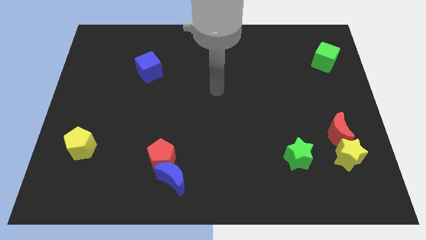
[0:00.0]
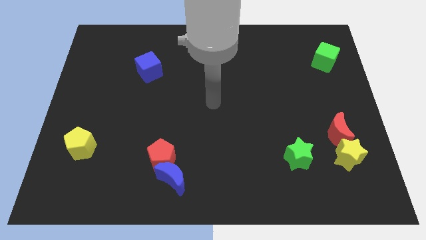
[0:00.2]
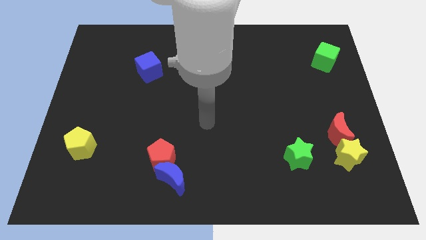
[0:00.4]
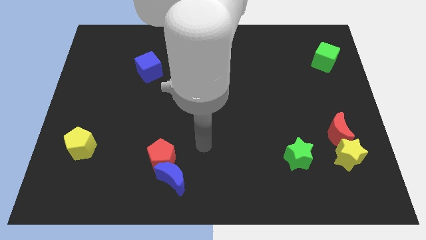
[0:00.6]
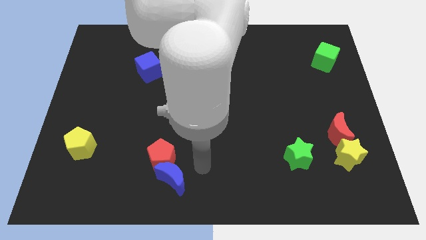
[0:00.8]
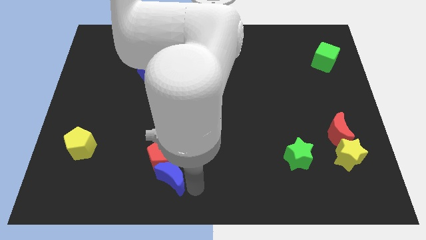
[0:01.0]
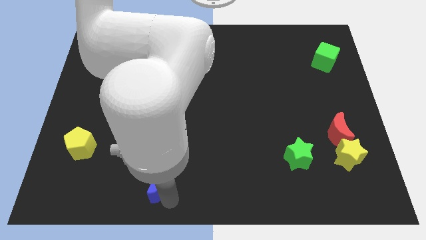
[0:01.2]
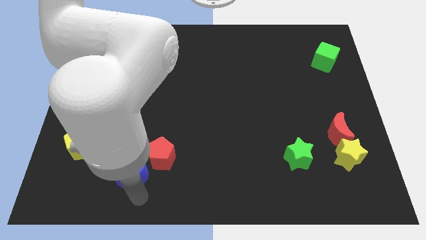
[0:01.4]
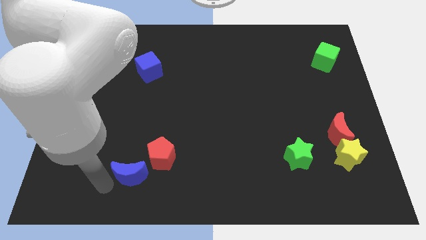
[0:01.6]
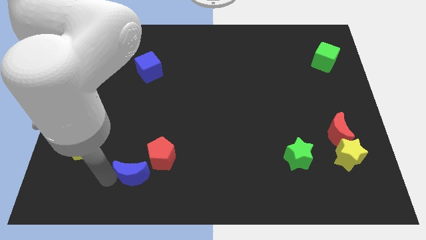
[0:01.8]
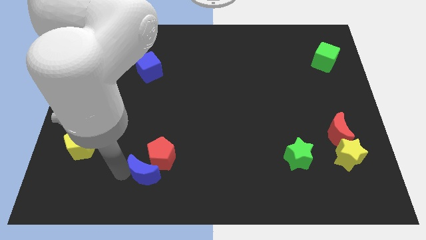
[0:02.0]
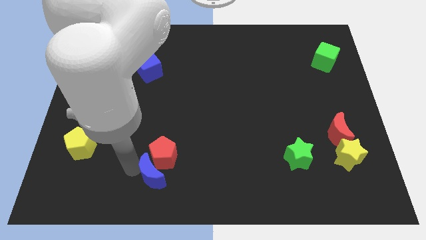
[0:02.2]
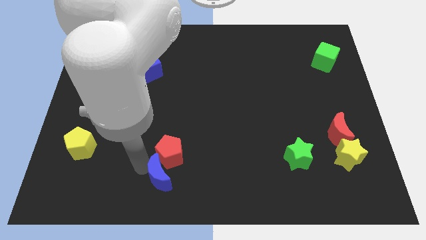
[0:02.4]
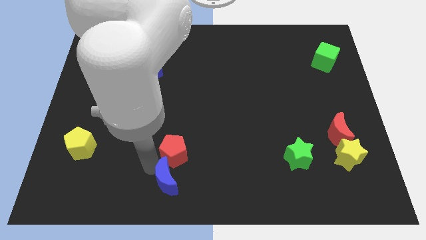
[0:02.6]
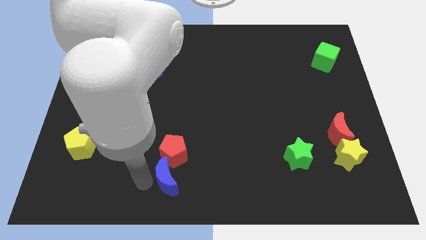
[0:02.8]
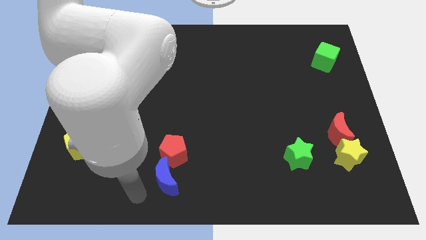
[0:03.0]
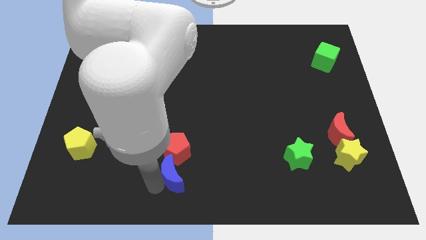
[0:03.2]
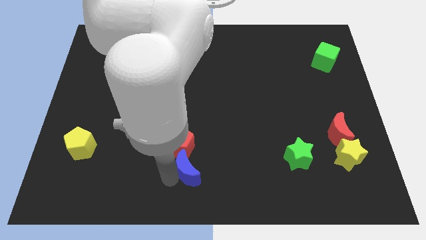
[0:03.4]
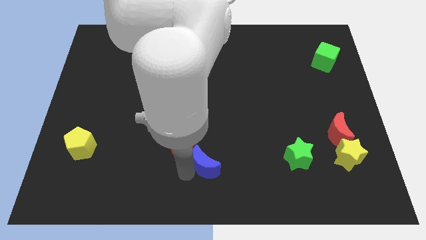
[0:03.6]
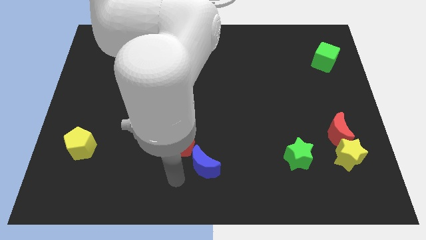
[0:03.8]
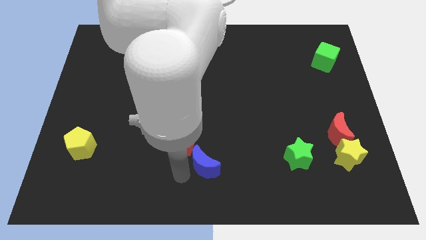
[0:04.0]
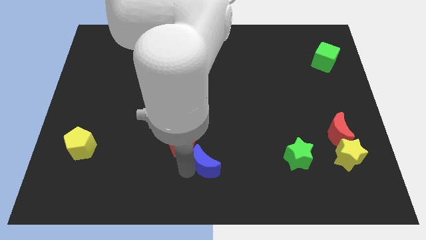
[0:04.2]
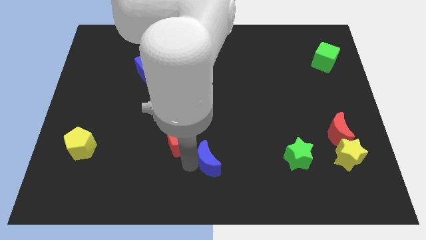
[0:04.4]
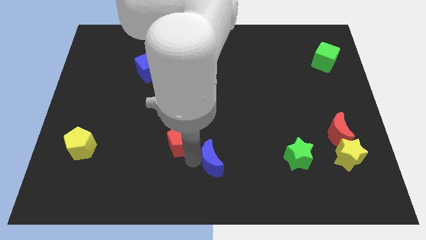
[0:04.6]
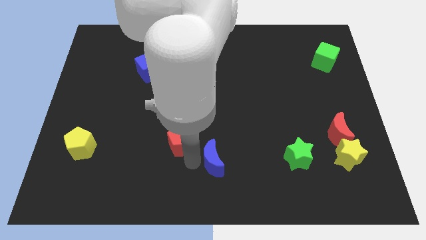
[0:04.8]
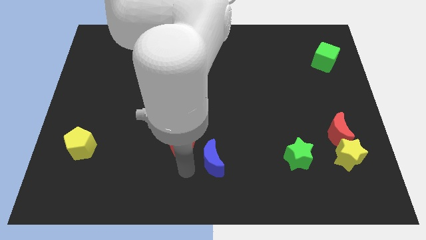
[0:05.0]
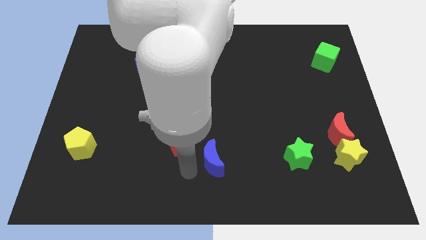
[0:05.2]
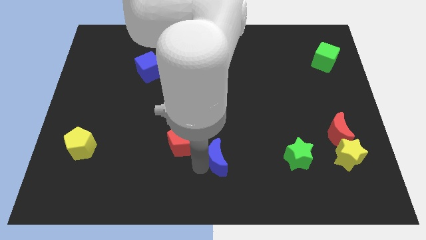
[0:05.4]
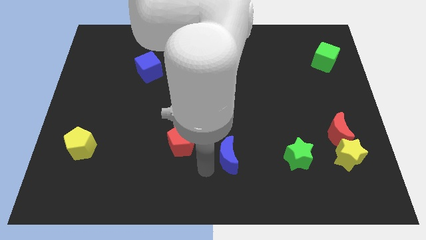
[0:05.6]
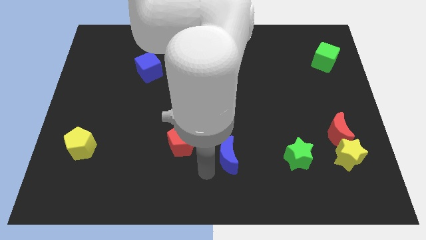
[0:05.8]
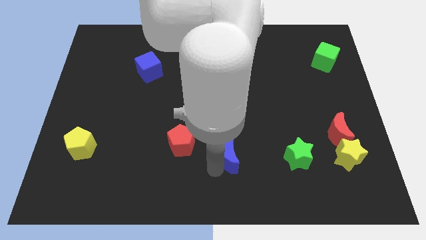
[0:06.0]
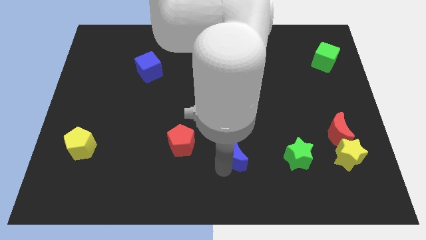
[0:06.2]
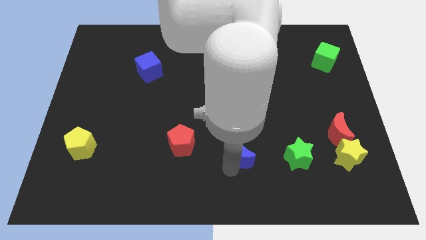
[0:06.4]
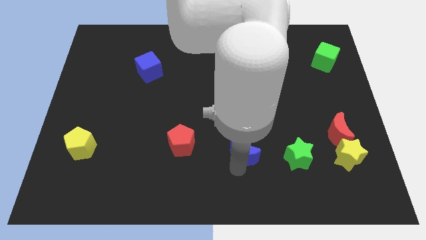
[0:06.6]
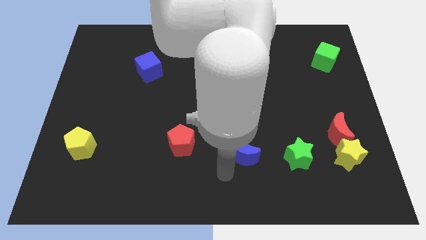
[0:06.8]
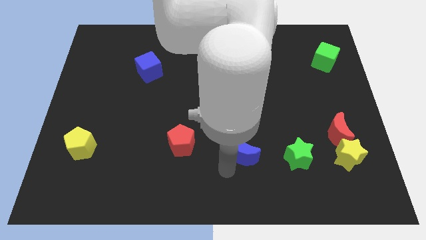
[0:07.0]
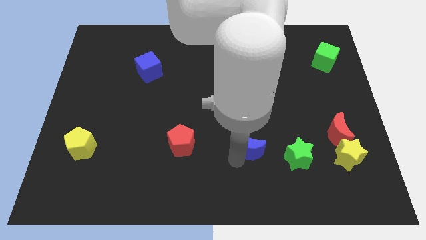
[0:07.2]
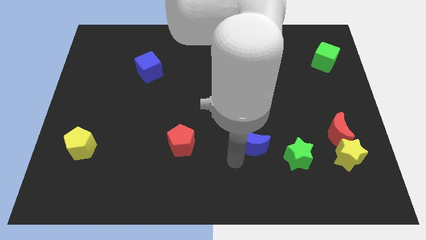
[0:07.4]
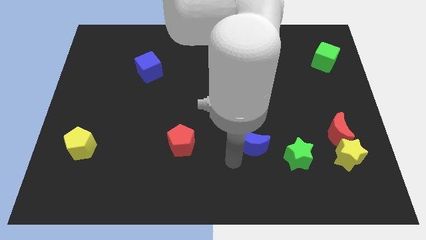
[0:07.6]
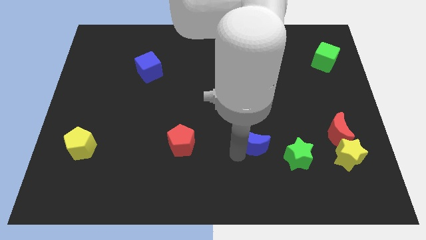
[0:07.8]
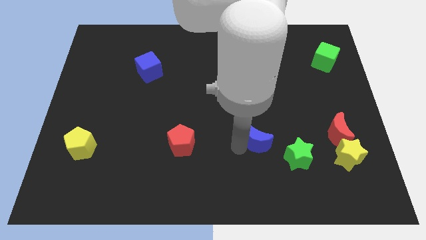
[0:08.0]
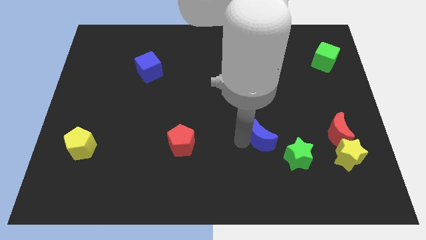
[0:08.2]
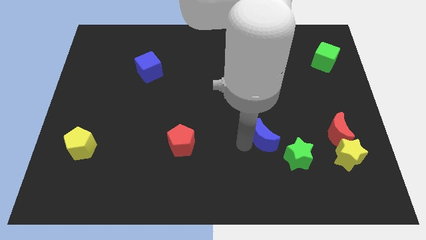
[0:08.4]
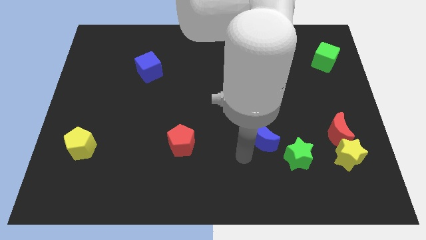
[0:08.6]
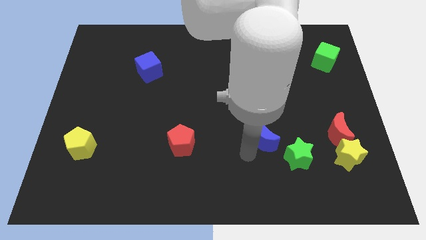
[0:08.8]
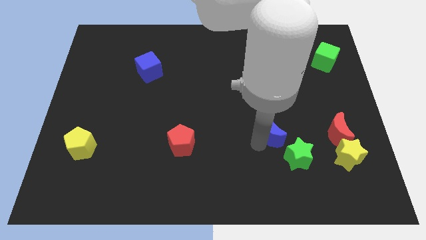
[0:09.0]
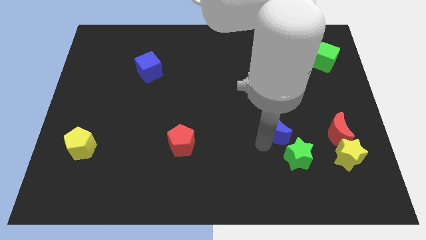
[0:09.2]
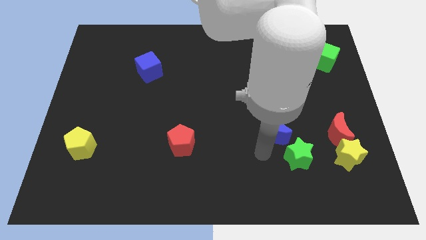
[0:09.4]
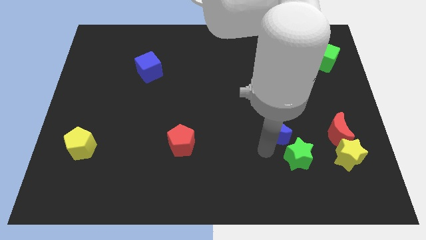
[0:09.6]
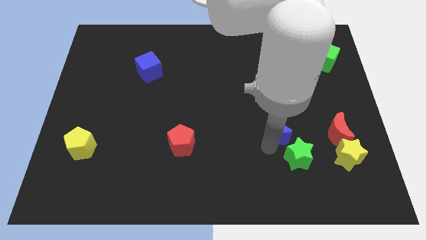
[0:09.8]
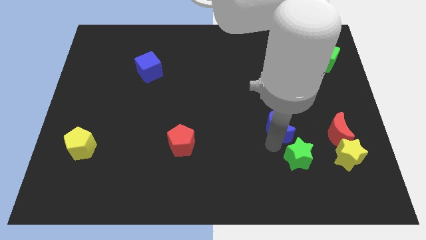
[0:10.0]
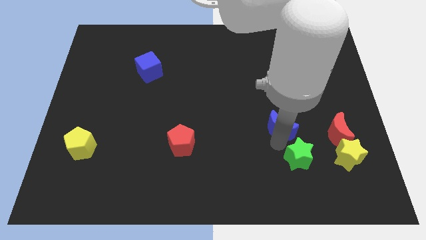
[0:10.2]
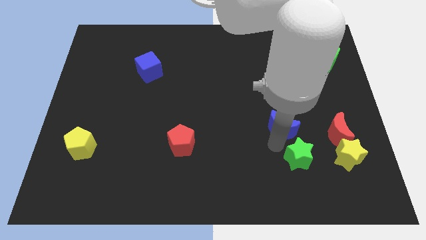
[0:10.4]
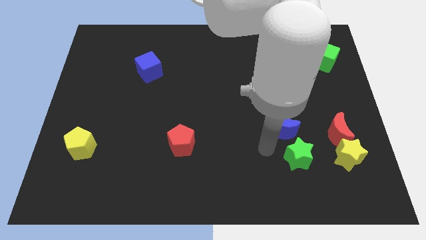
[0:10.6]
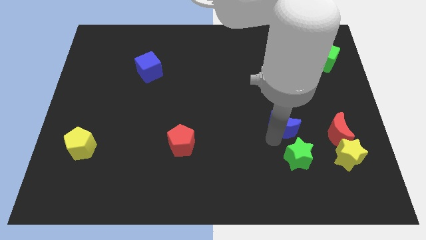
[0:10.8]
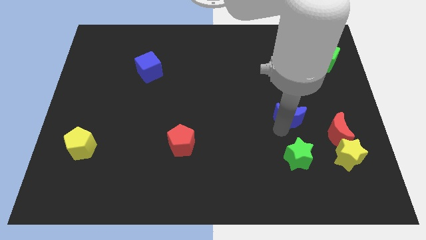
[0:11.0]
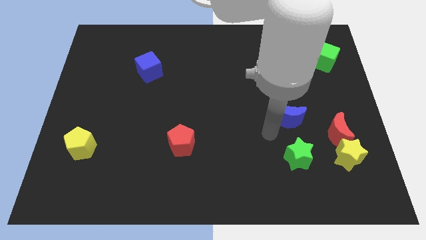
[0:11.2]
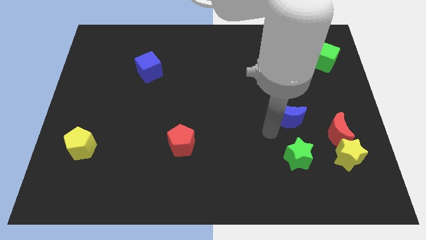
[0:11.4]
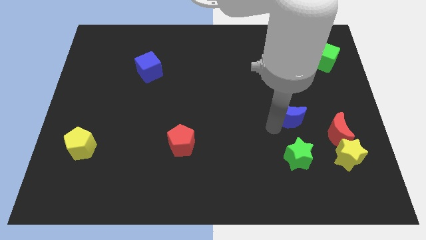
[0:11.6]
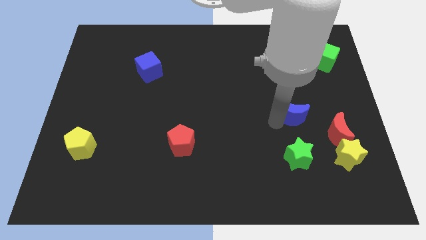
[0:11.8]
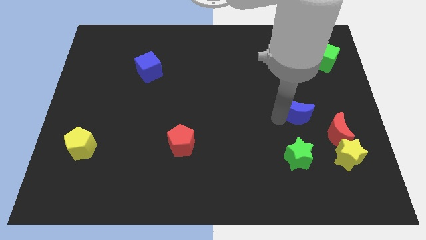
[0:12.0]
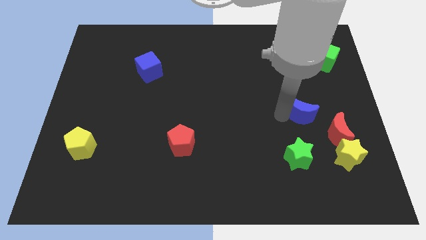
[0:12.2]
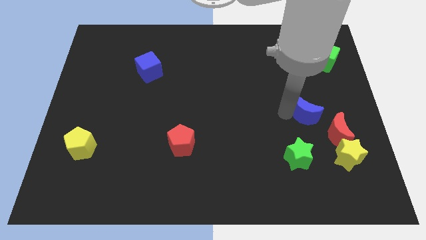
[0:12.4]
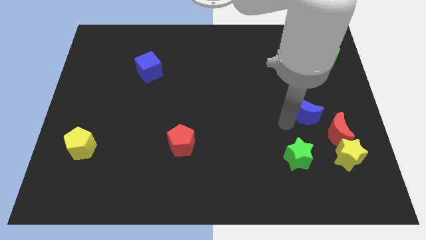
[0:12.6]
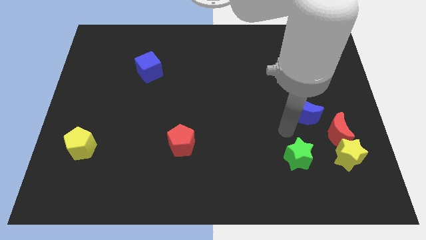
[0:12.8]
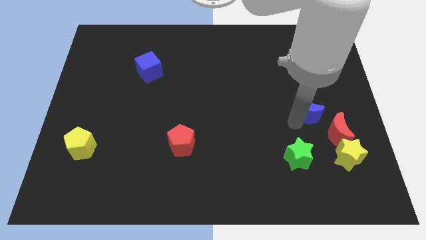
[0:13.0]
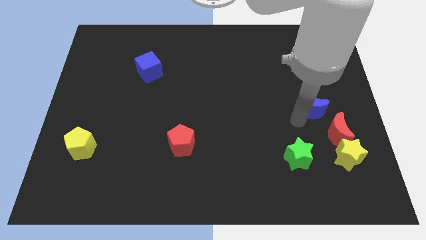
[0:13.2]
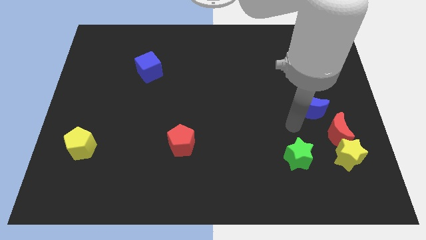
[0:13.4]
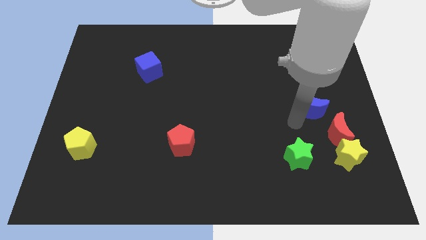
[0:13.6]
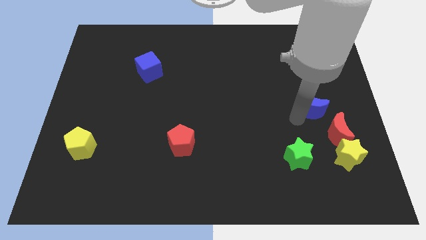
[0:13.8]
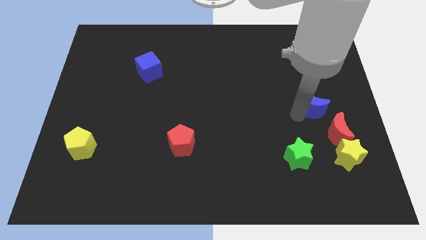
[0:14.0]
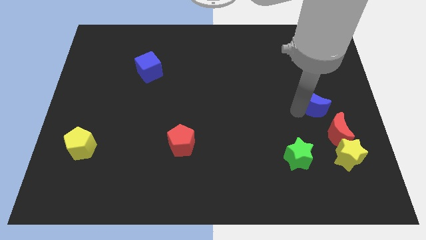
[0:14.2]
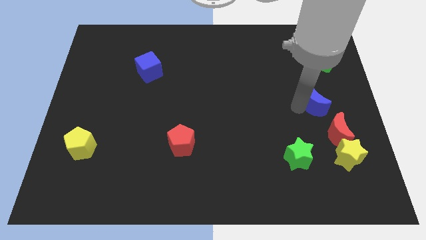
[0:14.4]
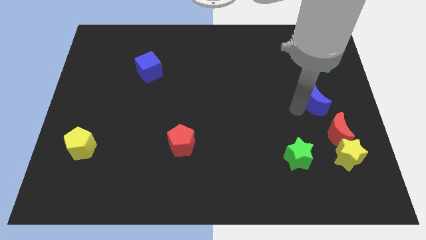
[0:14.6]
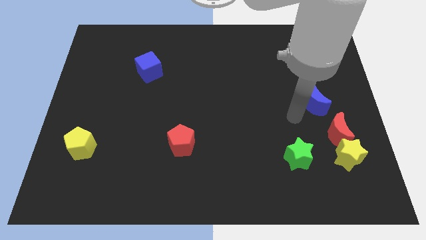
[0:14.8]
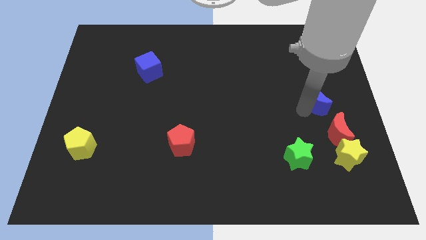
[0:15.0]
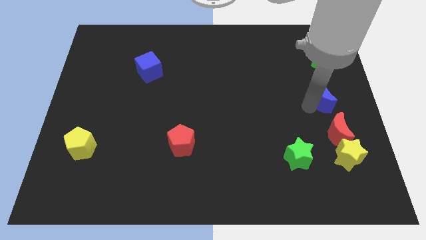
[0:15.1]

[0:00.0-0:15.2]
push the blue moon below the green cube

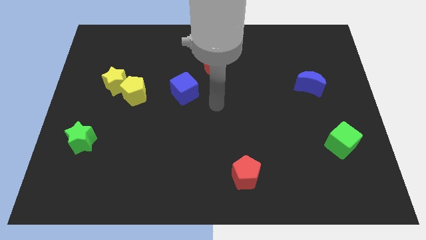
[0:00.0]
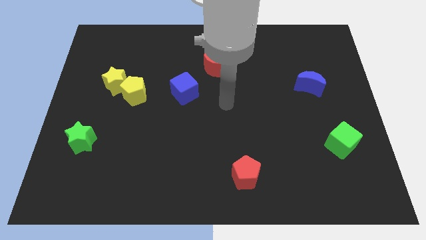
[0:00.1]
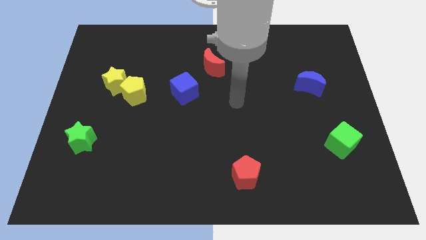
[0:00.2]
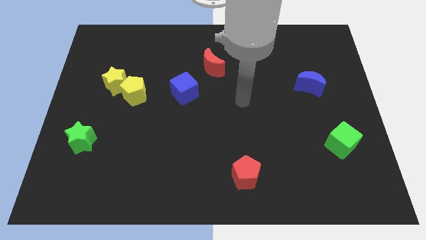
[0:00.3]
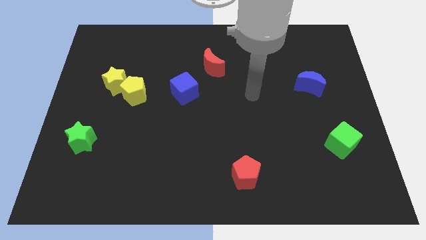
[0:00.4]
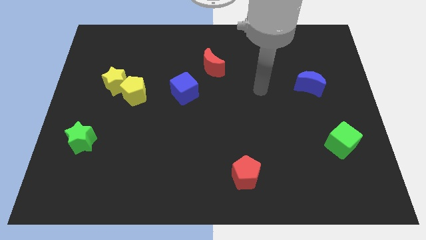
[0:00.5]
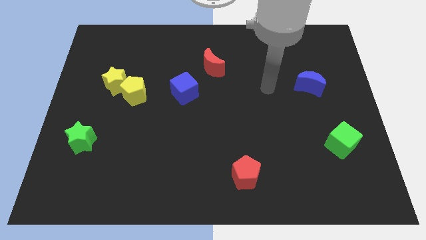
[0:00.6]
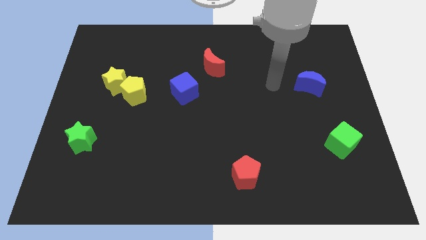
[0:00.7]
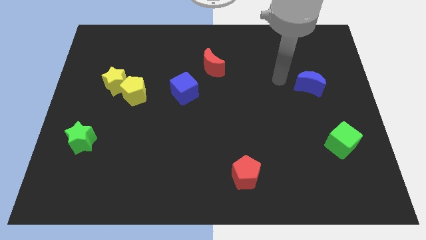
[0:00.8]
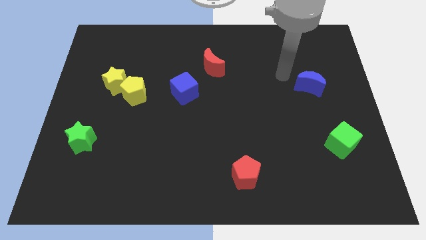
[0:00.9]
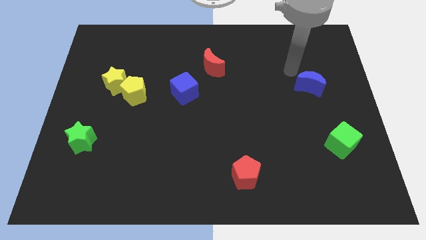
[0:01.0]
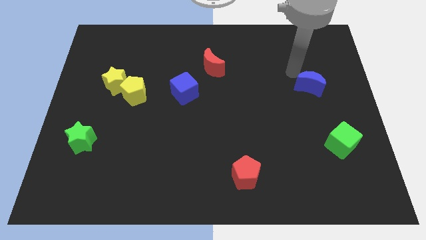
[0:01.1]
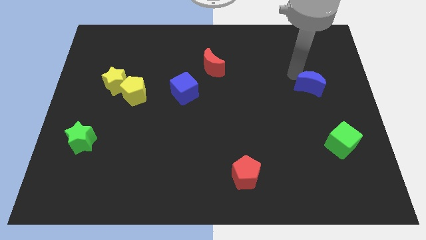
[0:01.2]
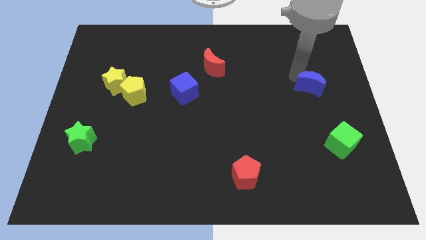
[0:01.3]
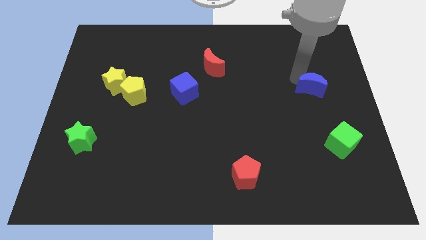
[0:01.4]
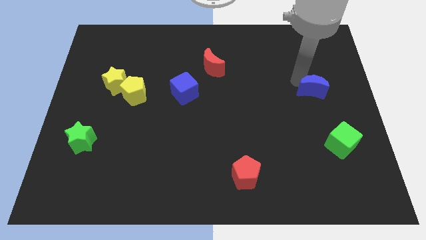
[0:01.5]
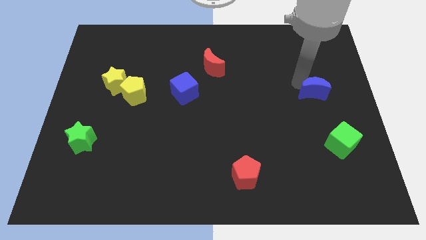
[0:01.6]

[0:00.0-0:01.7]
slide the blue moon to the top of the green cube
